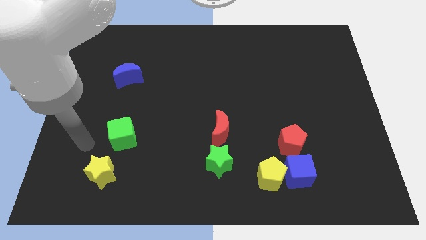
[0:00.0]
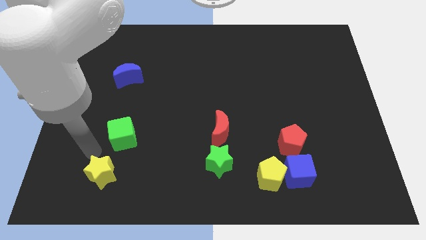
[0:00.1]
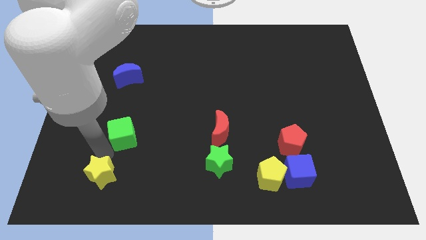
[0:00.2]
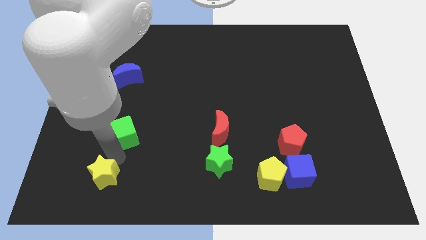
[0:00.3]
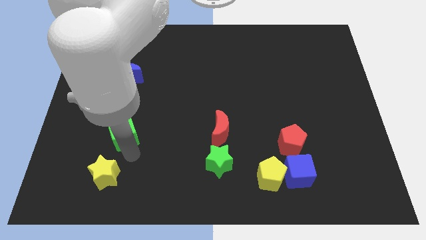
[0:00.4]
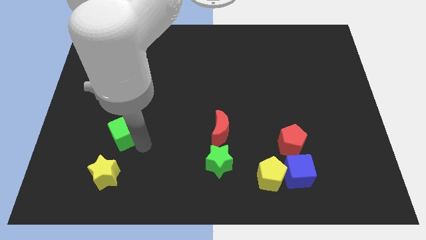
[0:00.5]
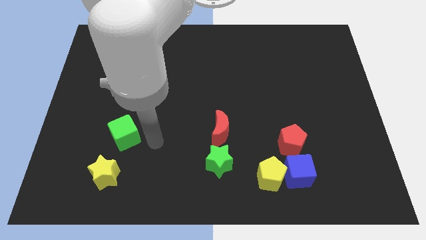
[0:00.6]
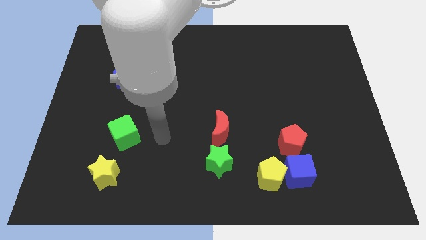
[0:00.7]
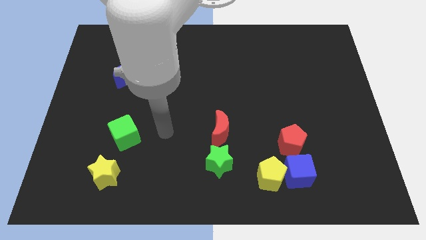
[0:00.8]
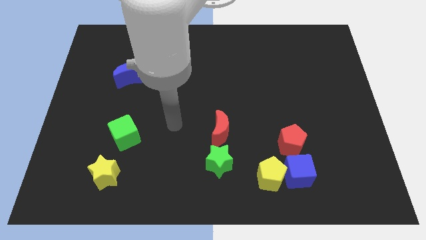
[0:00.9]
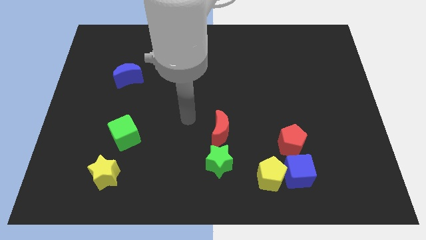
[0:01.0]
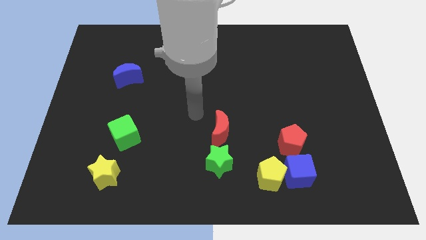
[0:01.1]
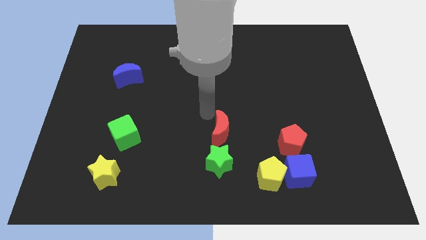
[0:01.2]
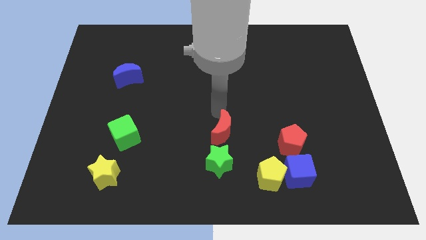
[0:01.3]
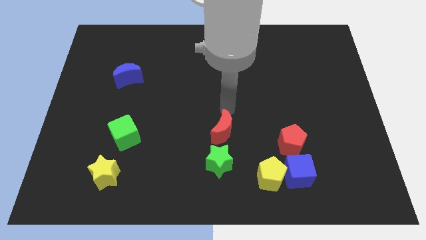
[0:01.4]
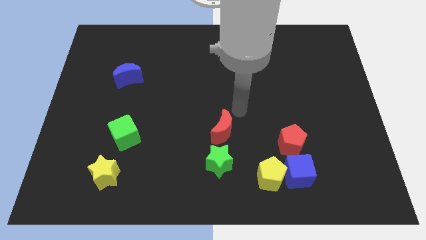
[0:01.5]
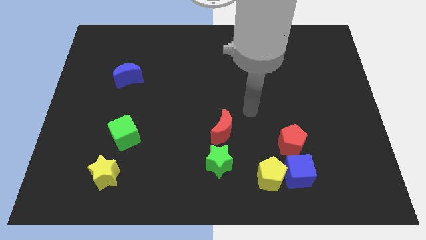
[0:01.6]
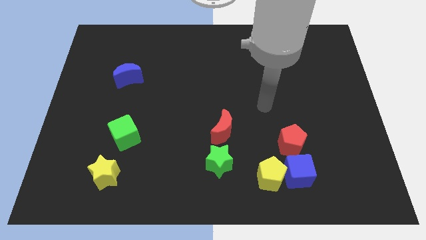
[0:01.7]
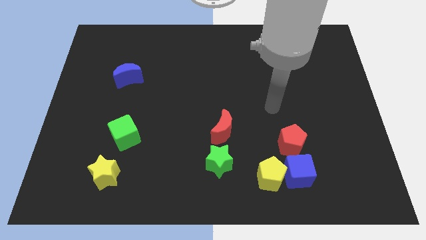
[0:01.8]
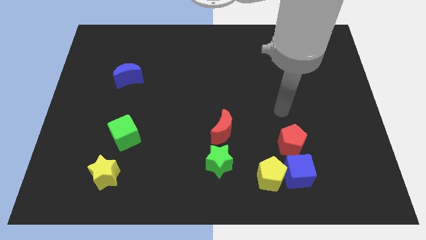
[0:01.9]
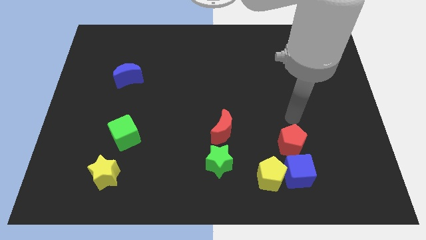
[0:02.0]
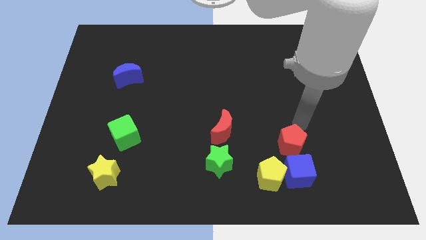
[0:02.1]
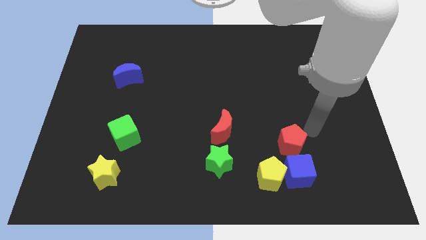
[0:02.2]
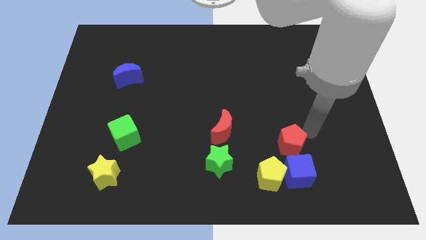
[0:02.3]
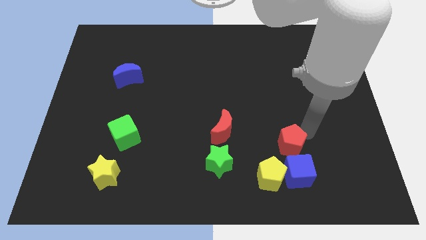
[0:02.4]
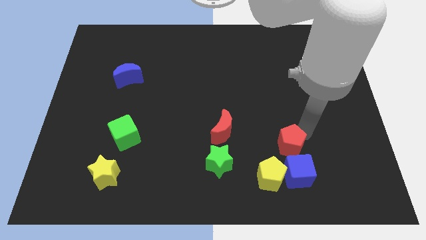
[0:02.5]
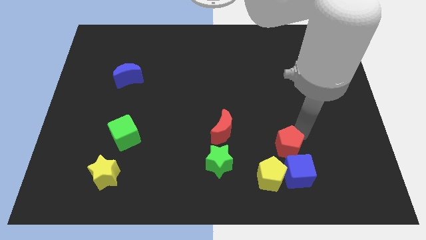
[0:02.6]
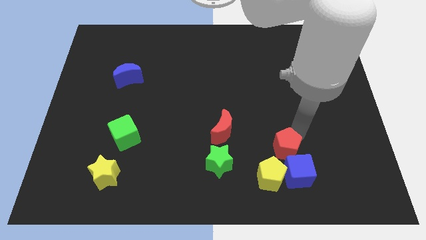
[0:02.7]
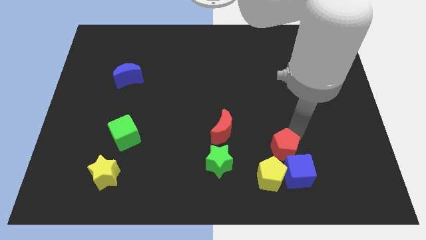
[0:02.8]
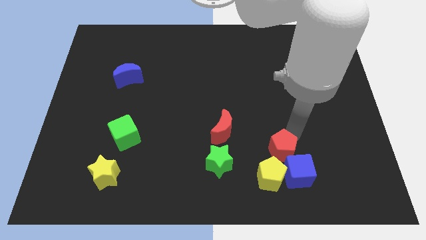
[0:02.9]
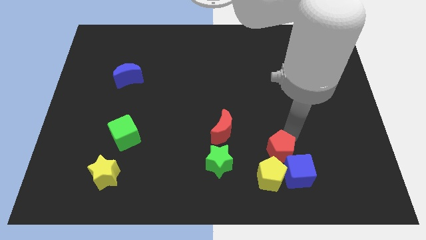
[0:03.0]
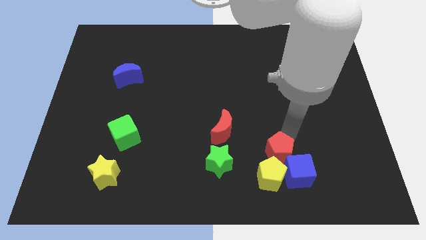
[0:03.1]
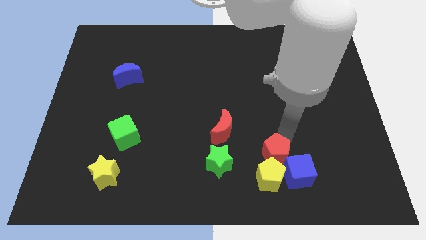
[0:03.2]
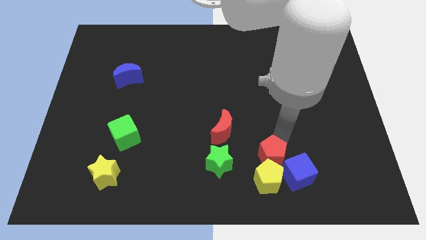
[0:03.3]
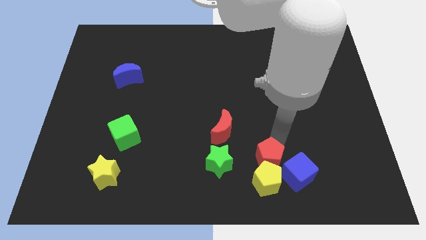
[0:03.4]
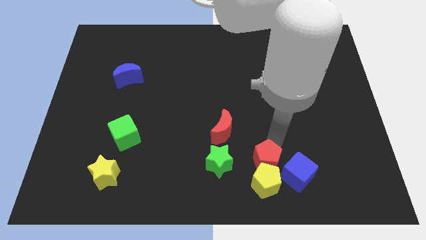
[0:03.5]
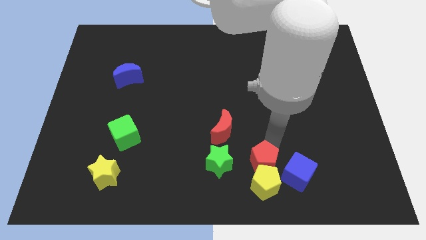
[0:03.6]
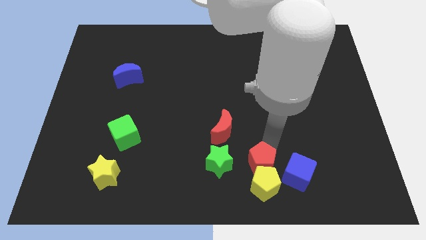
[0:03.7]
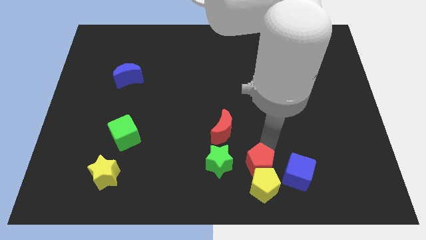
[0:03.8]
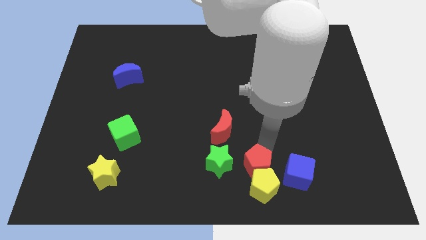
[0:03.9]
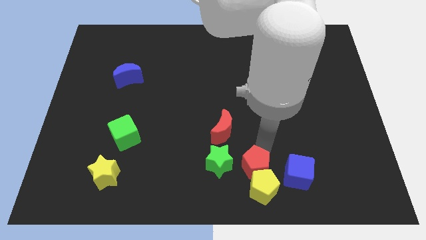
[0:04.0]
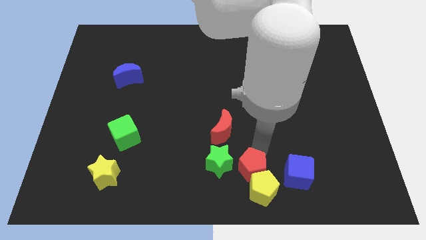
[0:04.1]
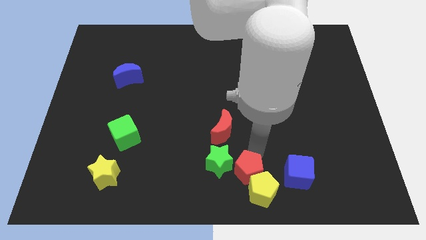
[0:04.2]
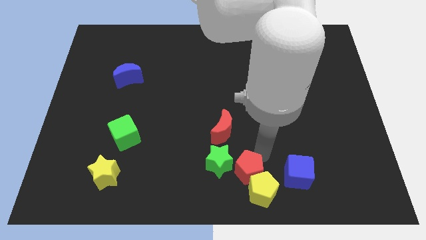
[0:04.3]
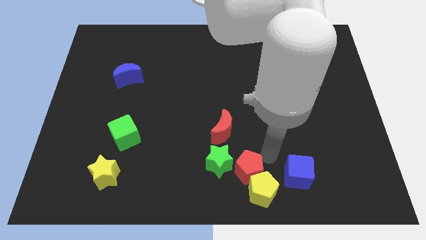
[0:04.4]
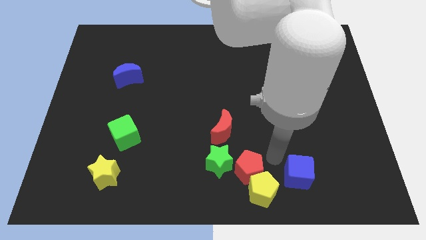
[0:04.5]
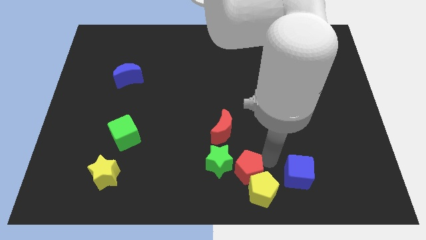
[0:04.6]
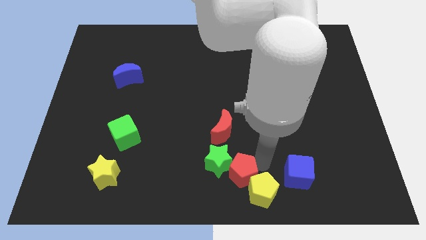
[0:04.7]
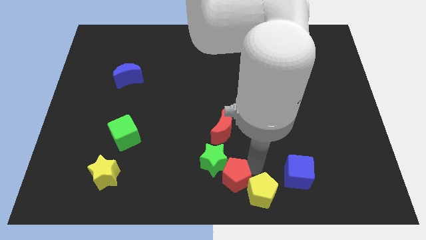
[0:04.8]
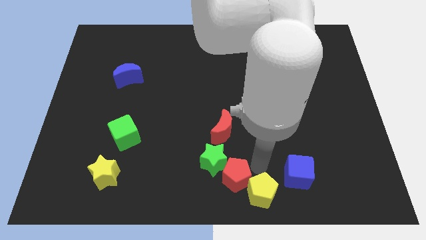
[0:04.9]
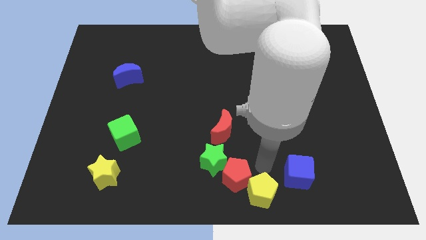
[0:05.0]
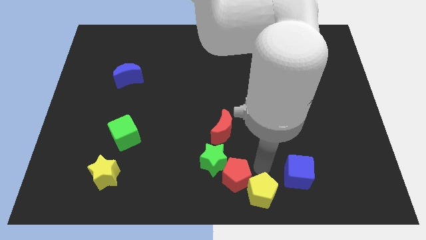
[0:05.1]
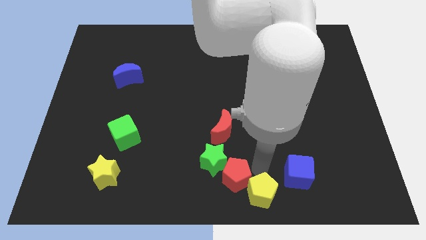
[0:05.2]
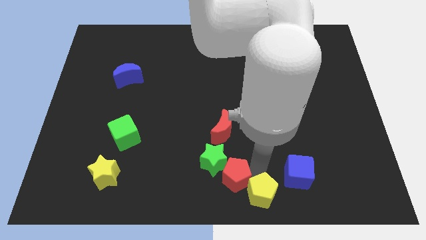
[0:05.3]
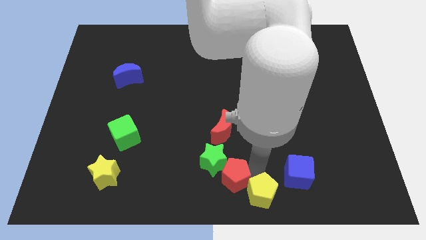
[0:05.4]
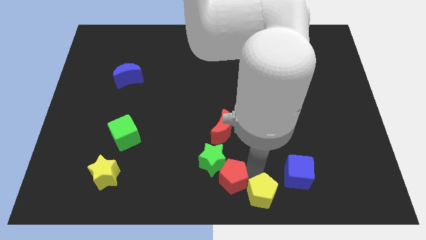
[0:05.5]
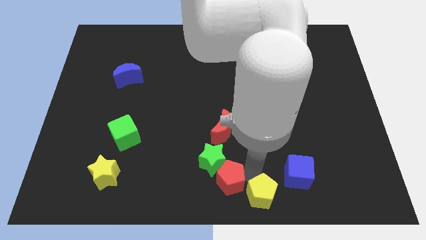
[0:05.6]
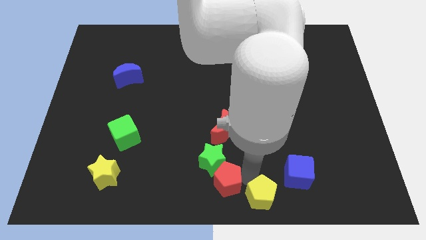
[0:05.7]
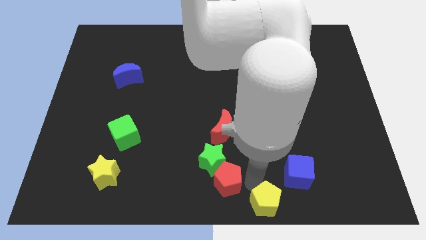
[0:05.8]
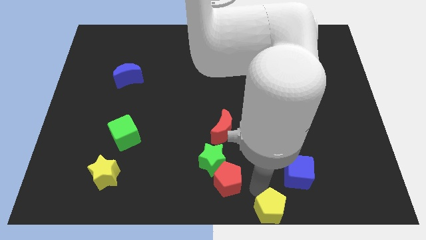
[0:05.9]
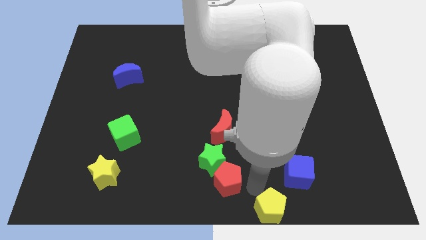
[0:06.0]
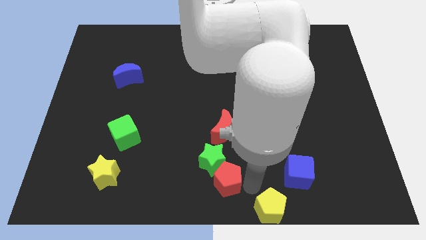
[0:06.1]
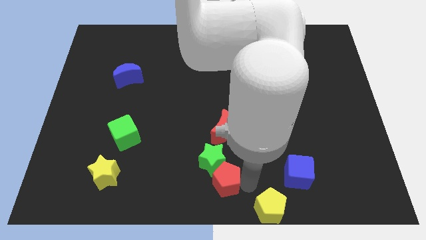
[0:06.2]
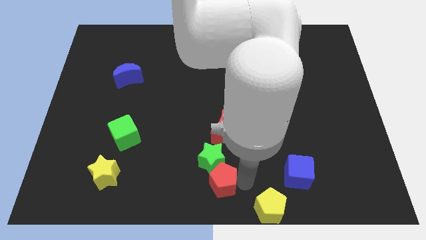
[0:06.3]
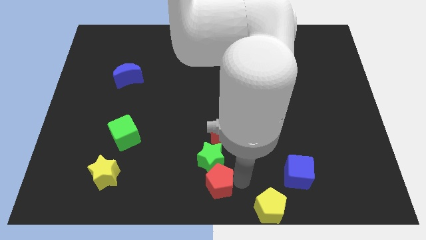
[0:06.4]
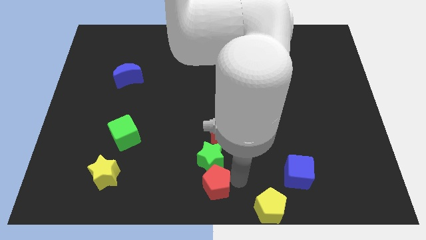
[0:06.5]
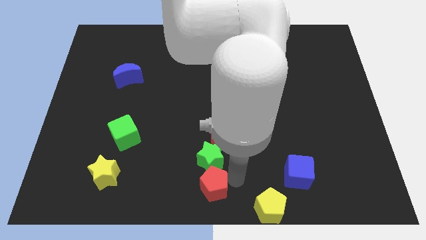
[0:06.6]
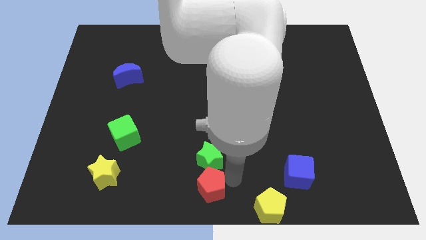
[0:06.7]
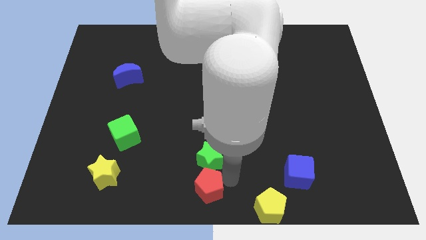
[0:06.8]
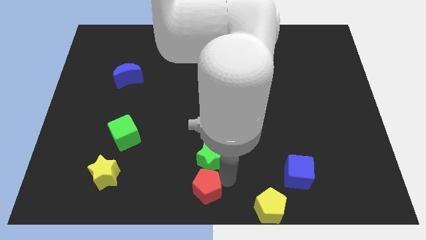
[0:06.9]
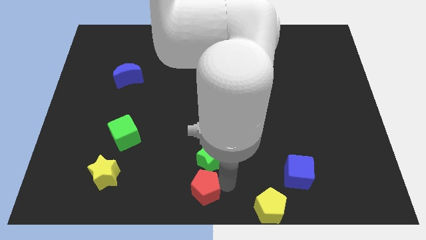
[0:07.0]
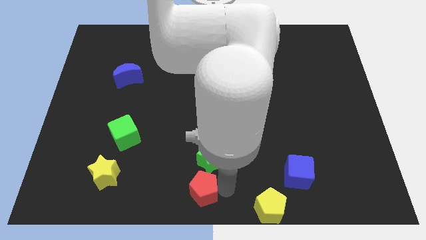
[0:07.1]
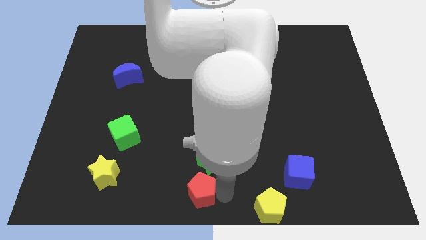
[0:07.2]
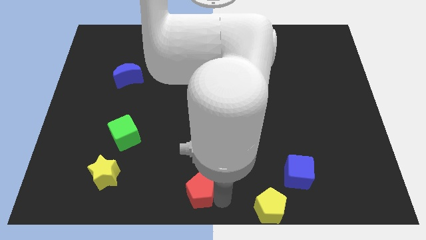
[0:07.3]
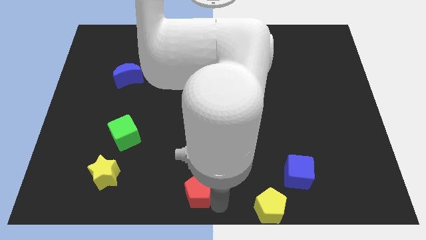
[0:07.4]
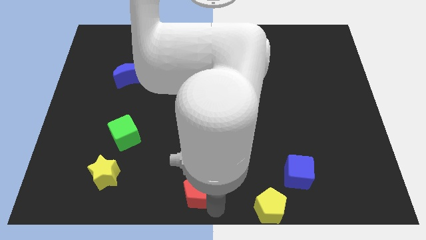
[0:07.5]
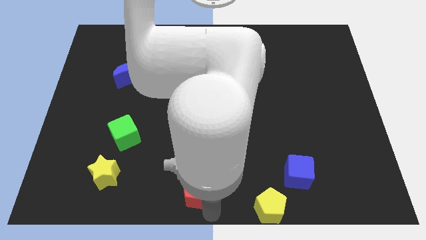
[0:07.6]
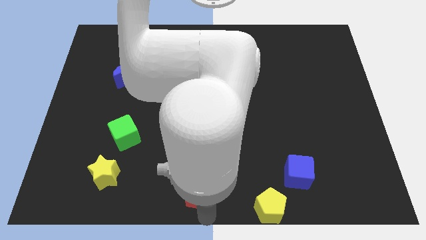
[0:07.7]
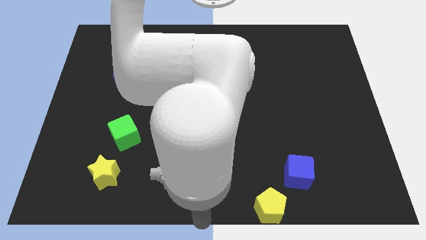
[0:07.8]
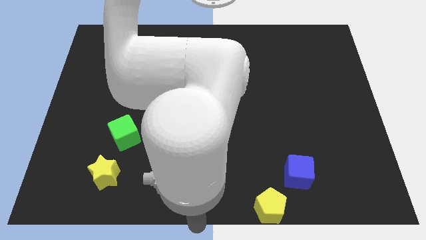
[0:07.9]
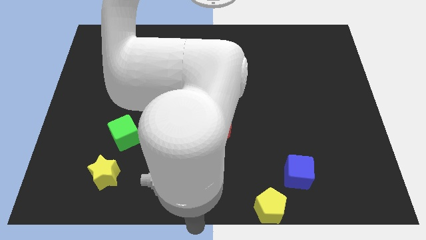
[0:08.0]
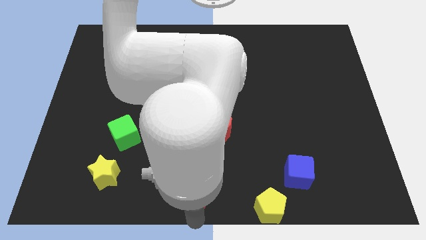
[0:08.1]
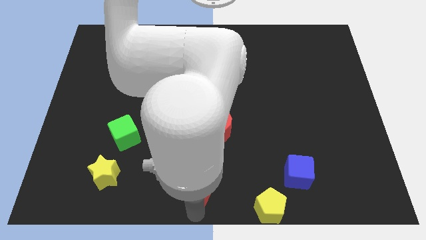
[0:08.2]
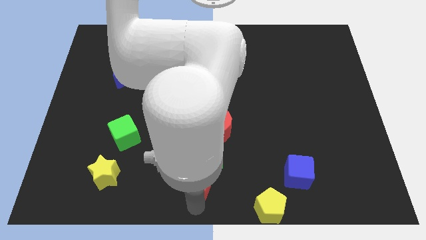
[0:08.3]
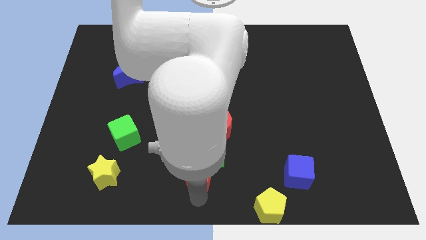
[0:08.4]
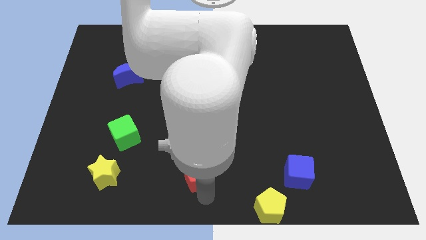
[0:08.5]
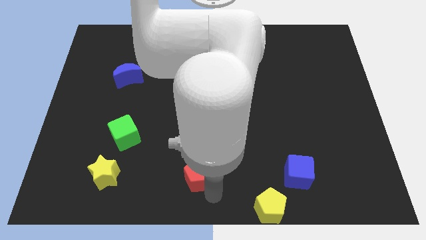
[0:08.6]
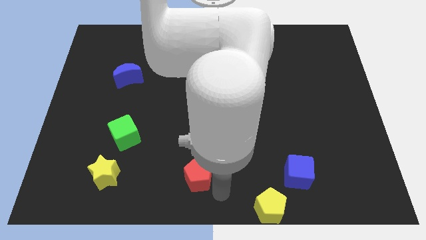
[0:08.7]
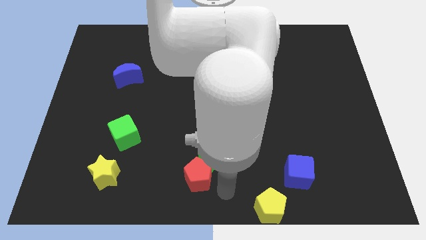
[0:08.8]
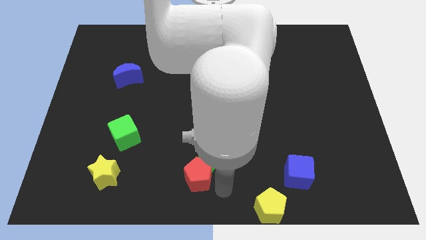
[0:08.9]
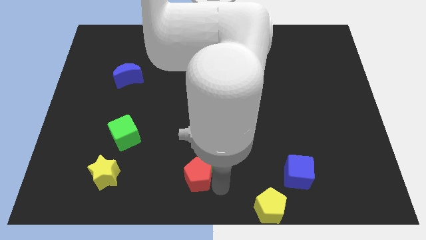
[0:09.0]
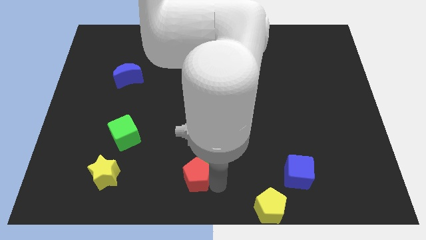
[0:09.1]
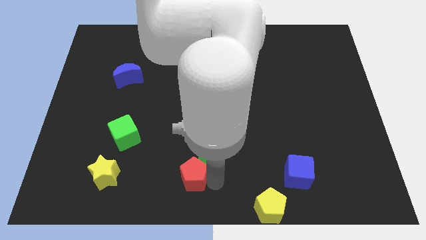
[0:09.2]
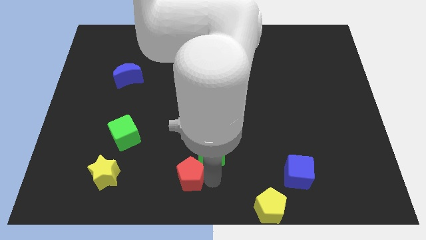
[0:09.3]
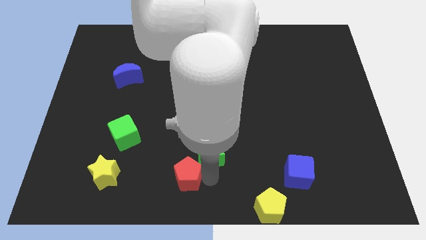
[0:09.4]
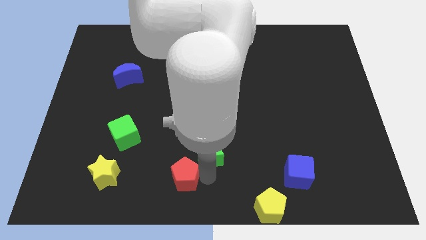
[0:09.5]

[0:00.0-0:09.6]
move the red pentagon to the left
